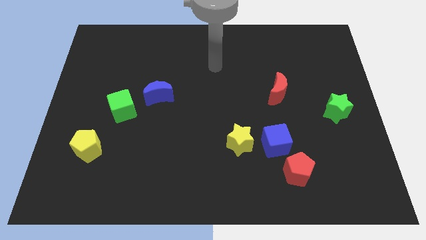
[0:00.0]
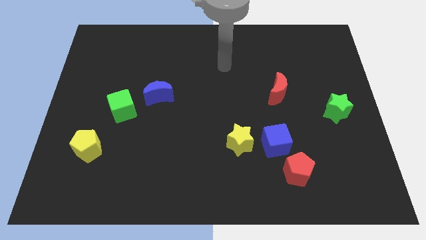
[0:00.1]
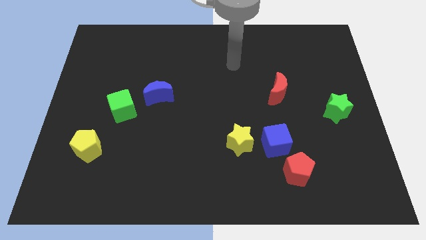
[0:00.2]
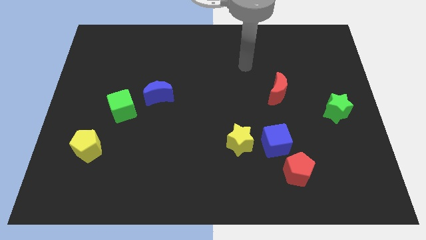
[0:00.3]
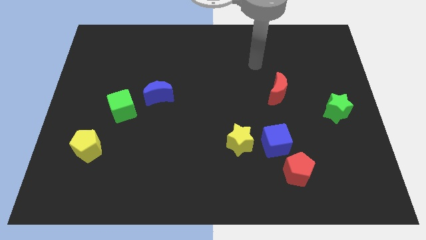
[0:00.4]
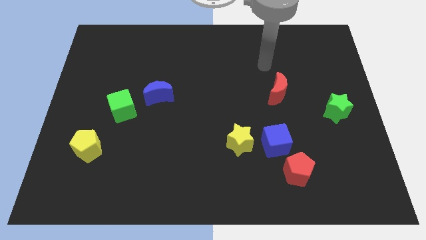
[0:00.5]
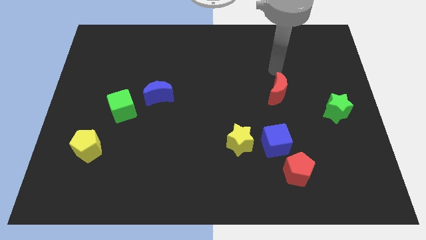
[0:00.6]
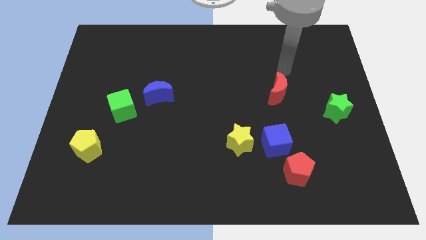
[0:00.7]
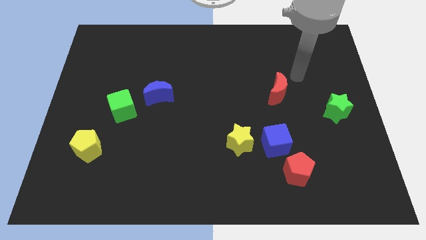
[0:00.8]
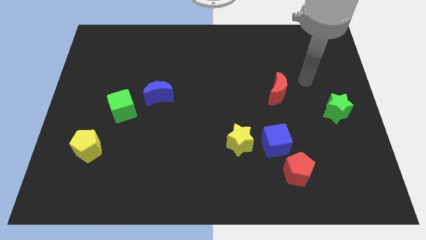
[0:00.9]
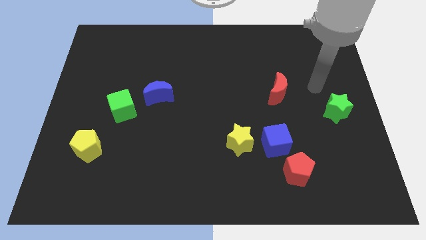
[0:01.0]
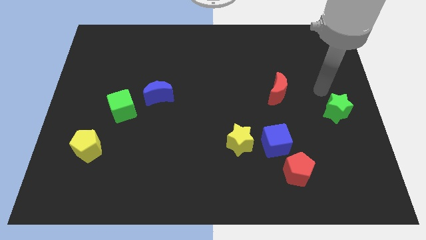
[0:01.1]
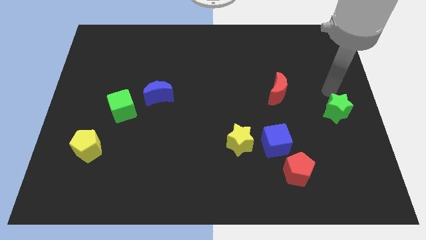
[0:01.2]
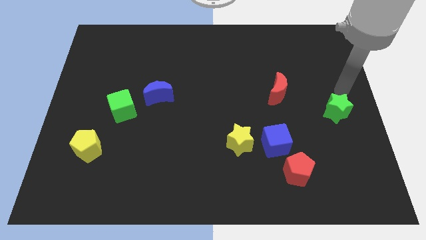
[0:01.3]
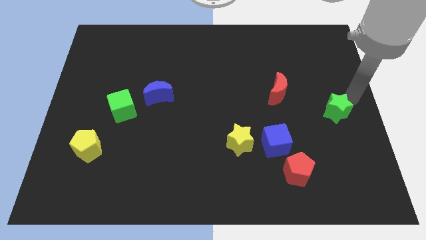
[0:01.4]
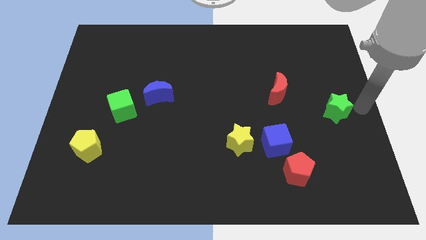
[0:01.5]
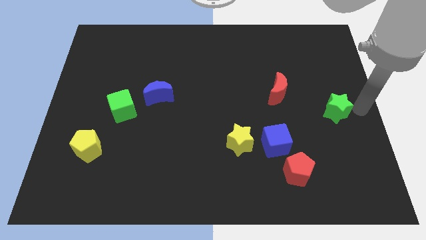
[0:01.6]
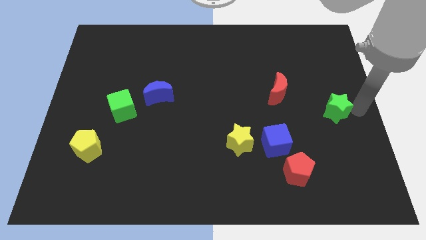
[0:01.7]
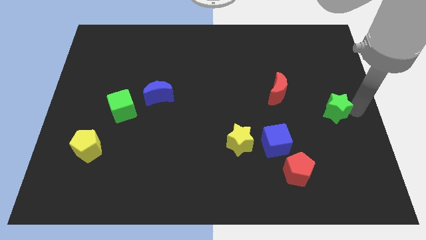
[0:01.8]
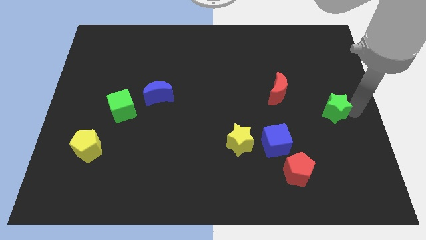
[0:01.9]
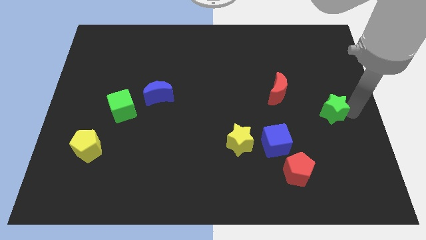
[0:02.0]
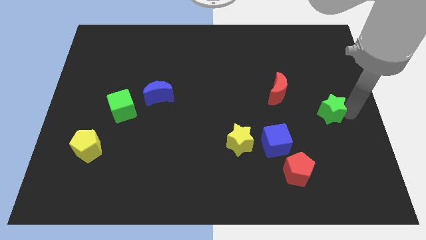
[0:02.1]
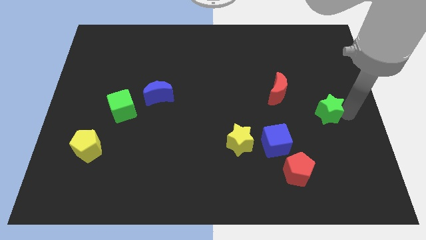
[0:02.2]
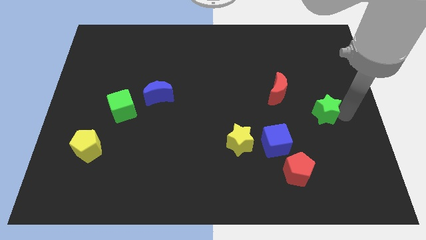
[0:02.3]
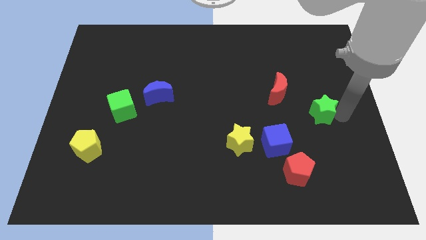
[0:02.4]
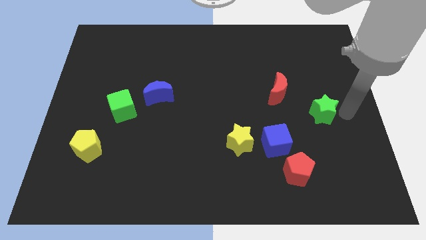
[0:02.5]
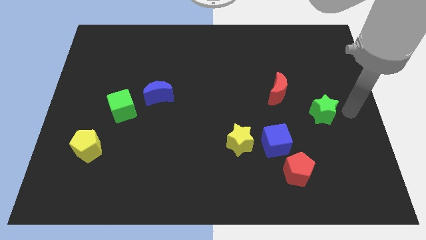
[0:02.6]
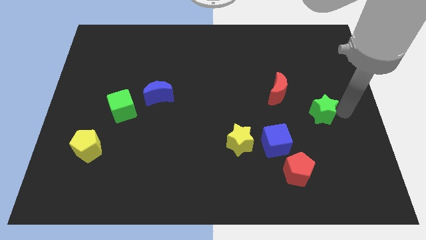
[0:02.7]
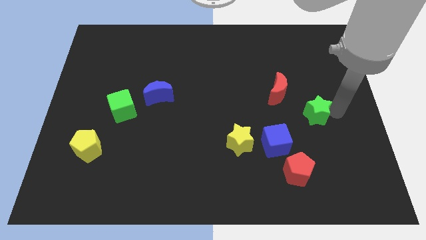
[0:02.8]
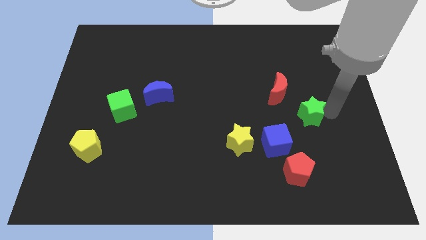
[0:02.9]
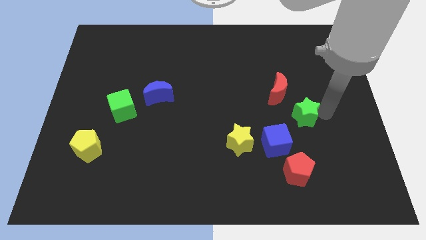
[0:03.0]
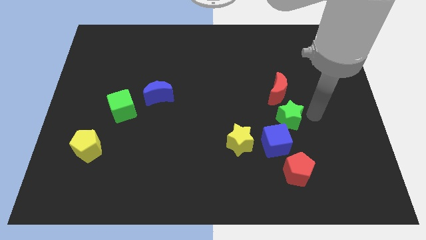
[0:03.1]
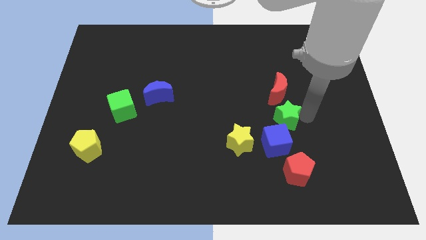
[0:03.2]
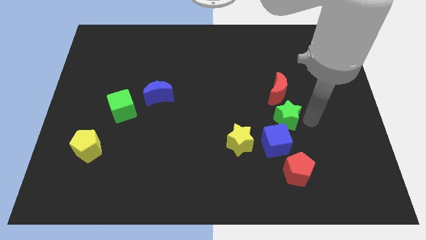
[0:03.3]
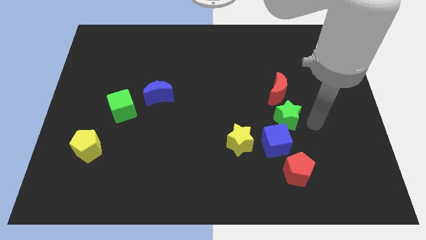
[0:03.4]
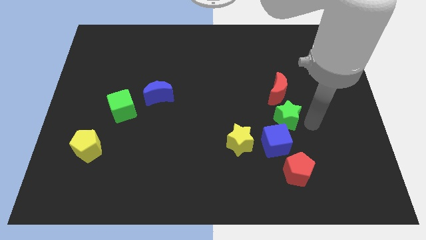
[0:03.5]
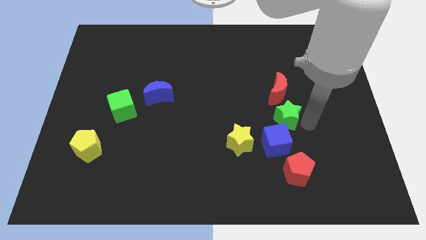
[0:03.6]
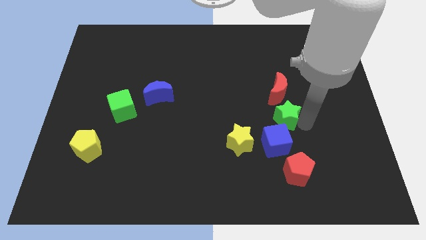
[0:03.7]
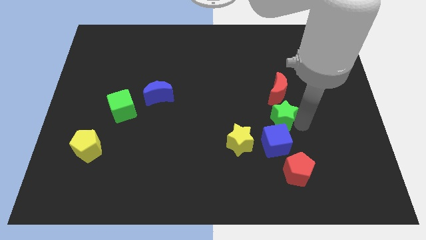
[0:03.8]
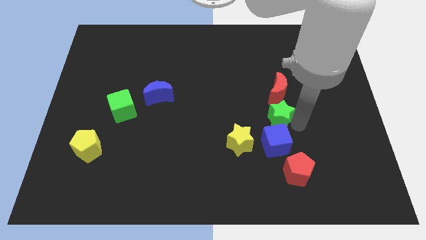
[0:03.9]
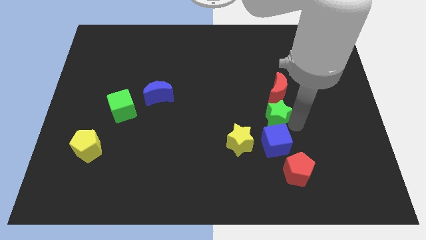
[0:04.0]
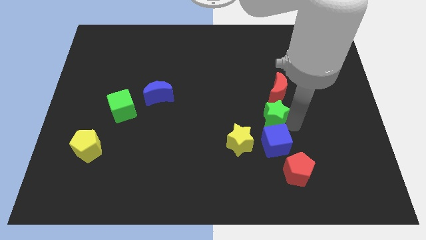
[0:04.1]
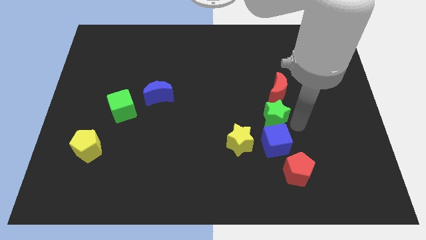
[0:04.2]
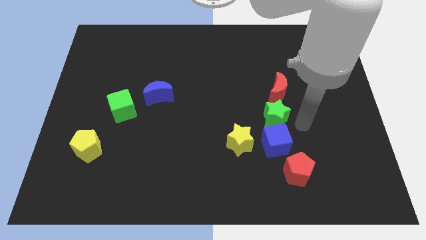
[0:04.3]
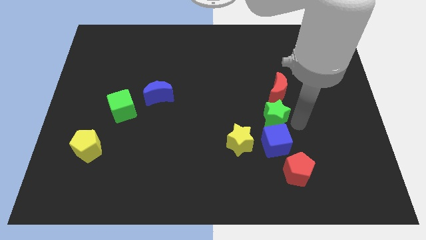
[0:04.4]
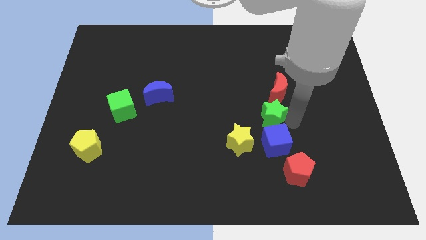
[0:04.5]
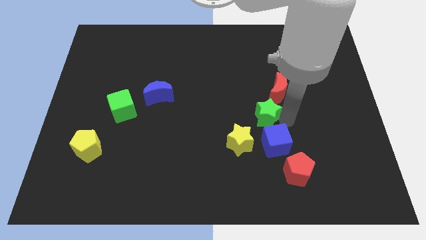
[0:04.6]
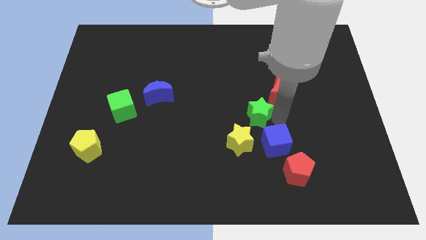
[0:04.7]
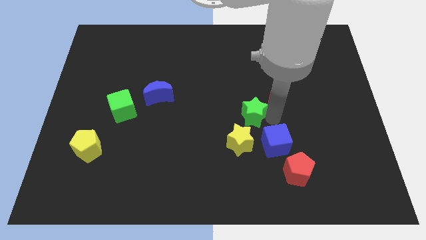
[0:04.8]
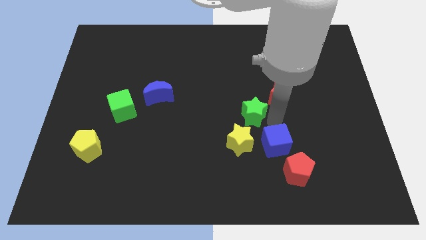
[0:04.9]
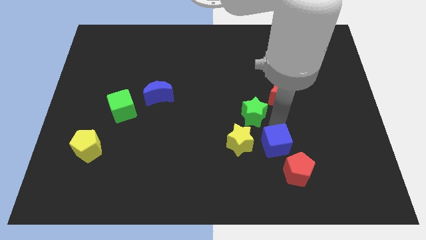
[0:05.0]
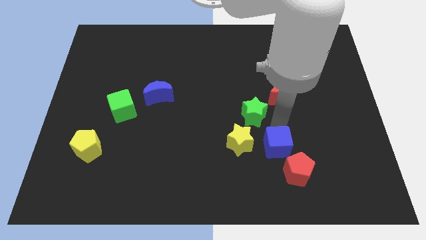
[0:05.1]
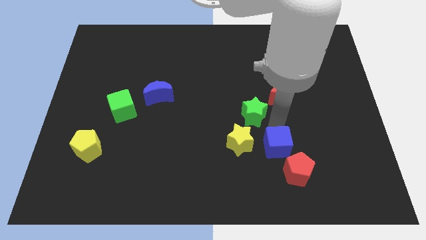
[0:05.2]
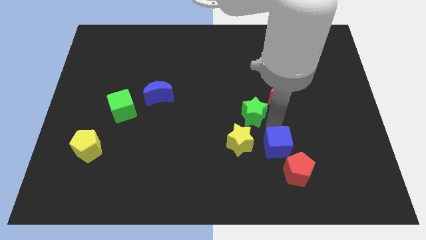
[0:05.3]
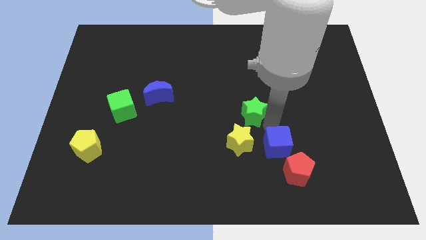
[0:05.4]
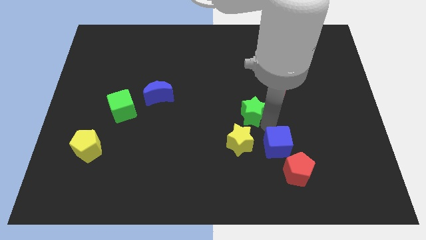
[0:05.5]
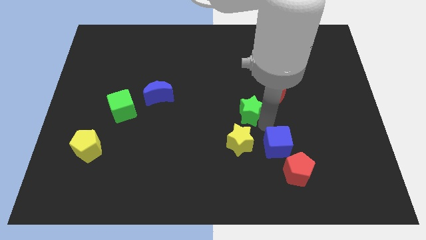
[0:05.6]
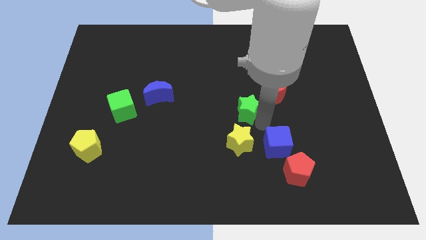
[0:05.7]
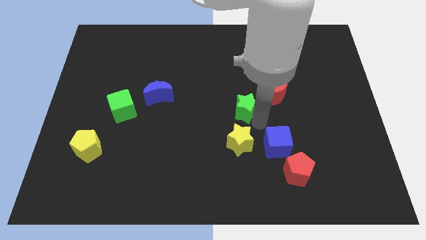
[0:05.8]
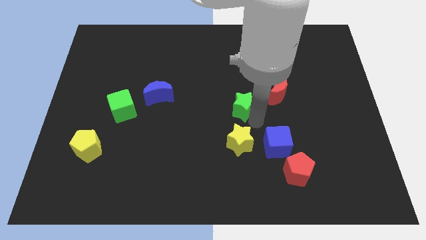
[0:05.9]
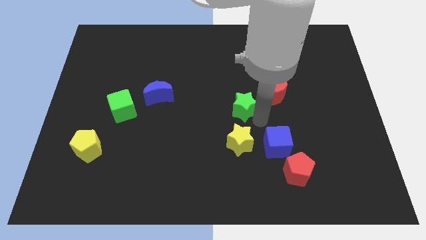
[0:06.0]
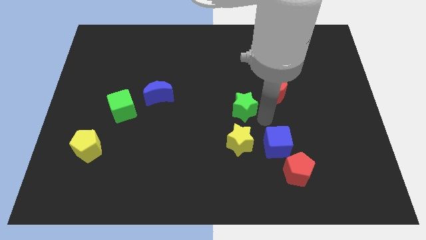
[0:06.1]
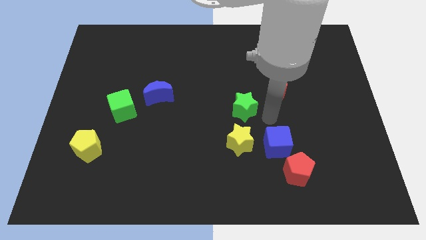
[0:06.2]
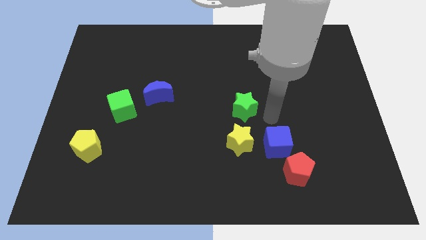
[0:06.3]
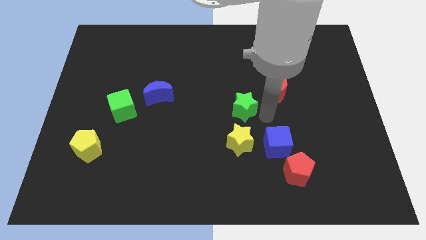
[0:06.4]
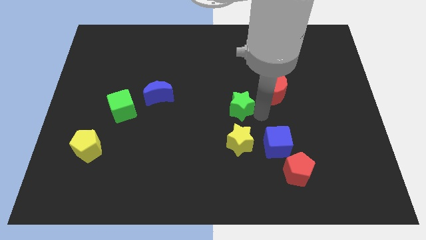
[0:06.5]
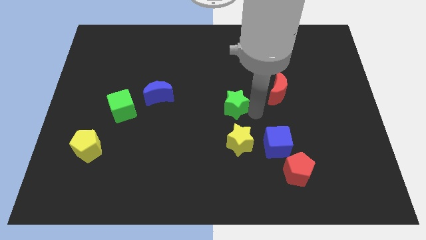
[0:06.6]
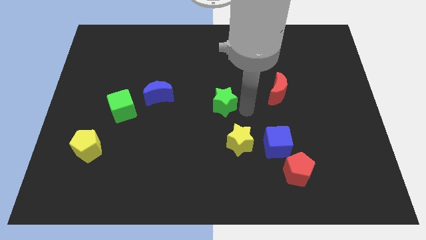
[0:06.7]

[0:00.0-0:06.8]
slide the green star just right of the blue moon

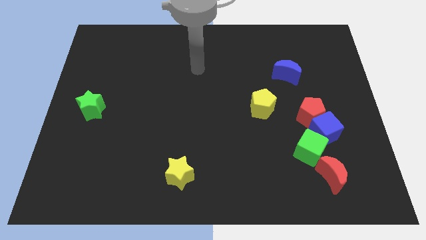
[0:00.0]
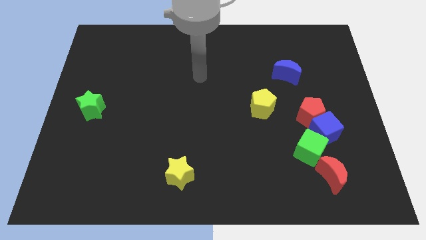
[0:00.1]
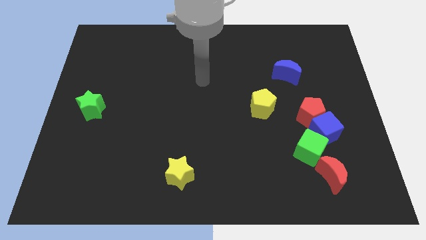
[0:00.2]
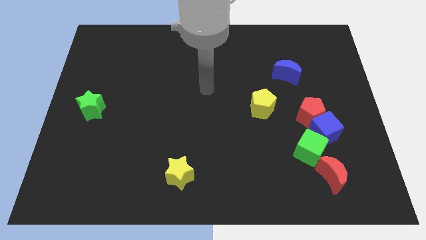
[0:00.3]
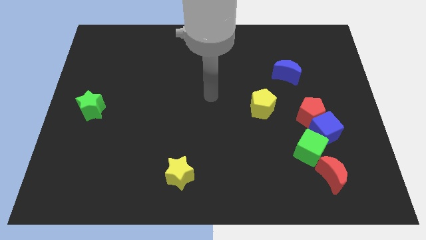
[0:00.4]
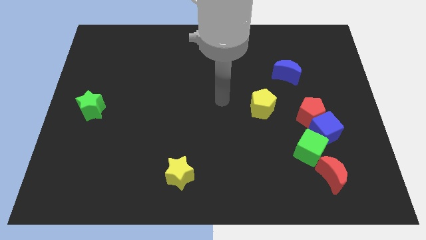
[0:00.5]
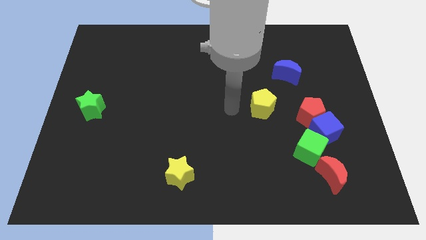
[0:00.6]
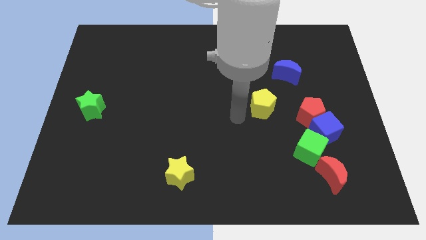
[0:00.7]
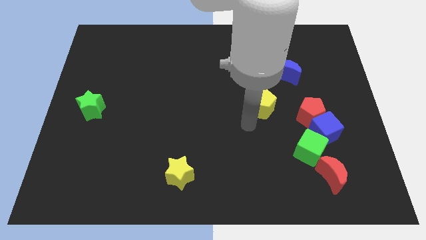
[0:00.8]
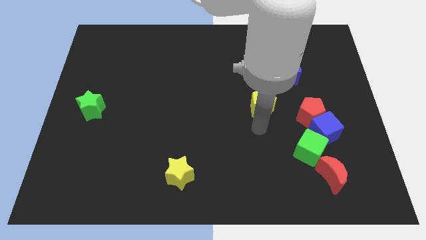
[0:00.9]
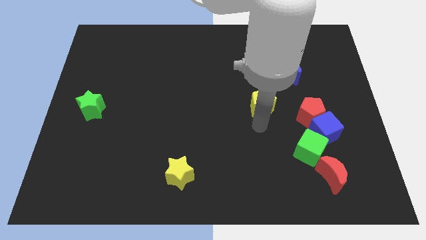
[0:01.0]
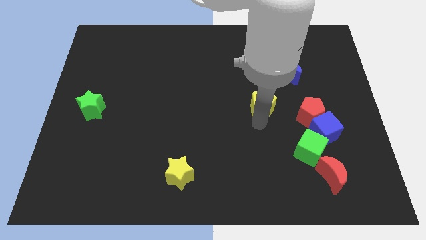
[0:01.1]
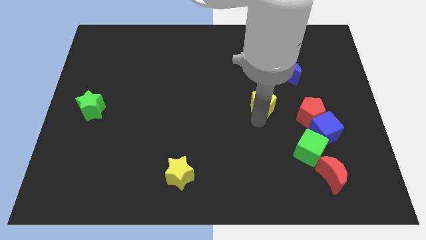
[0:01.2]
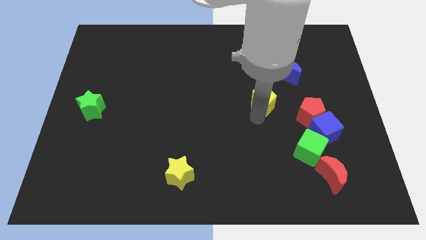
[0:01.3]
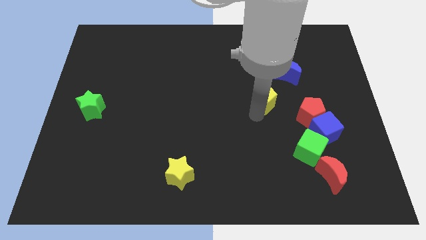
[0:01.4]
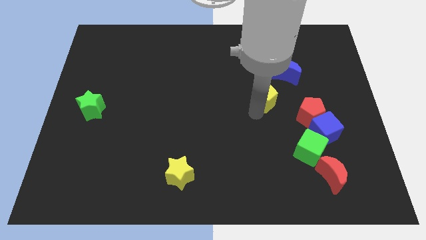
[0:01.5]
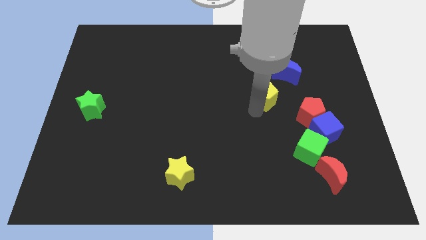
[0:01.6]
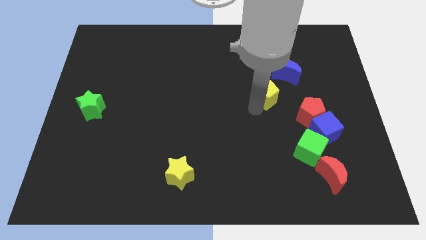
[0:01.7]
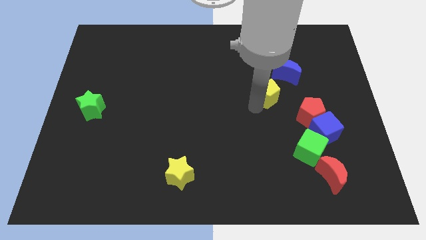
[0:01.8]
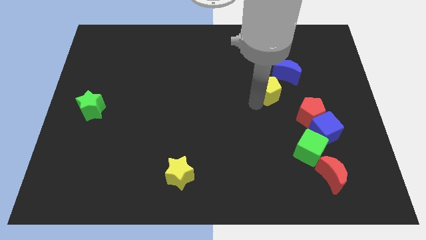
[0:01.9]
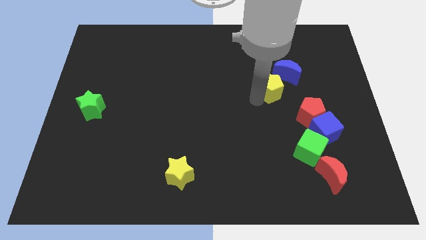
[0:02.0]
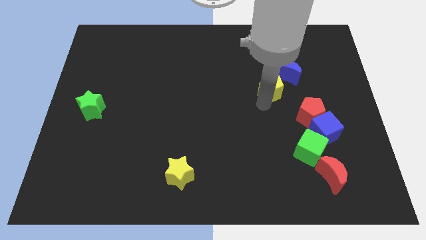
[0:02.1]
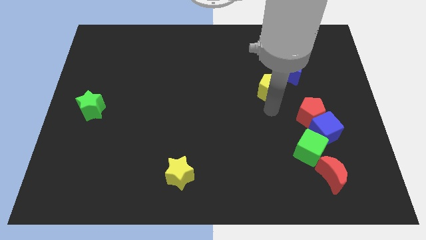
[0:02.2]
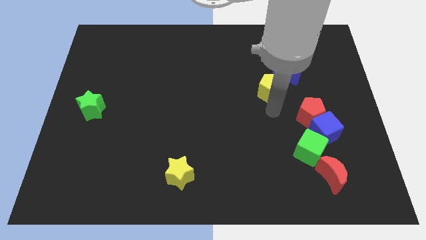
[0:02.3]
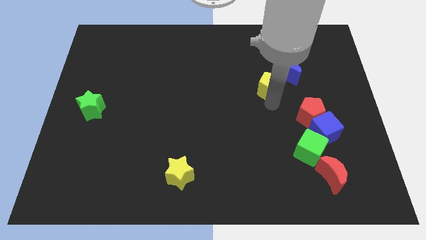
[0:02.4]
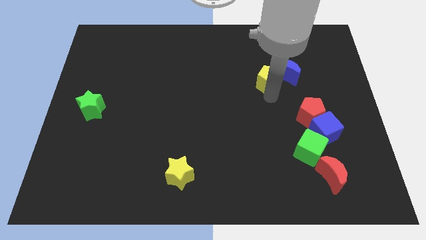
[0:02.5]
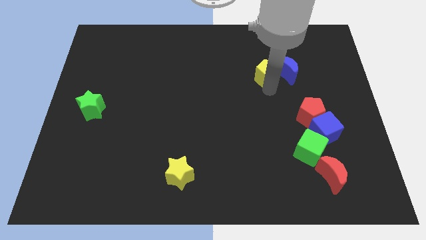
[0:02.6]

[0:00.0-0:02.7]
put the yellow pentagon diagonally up and to the left of the blue moon
